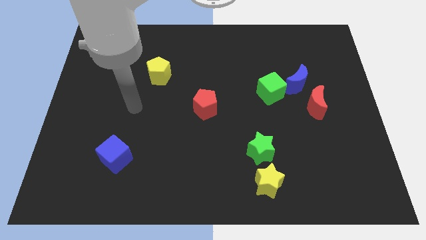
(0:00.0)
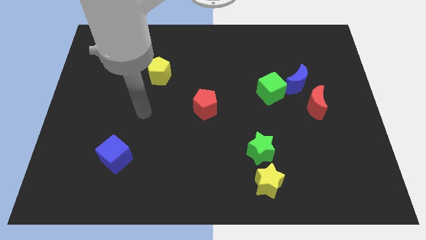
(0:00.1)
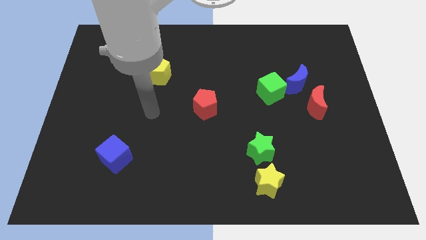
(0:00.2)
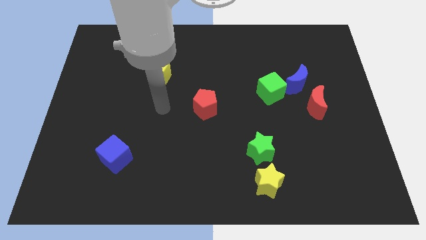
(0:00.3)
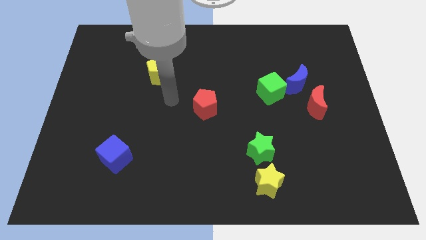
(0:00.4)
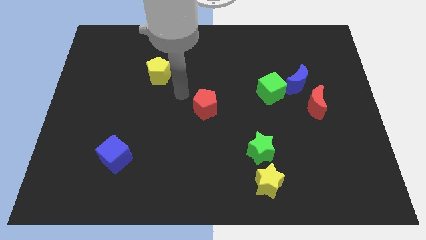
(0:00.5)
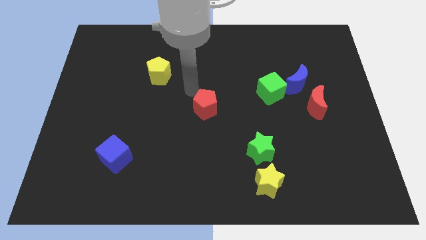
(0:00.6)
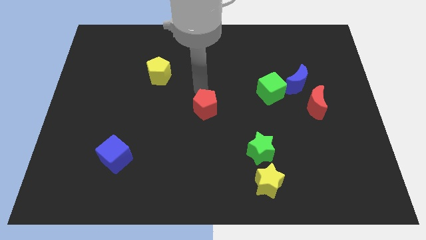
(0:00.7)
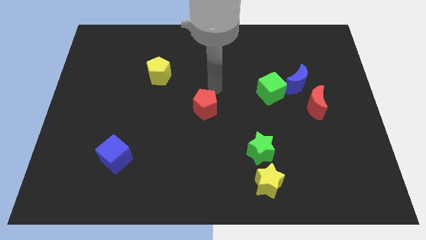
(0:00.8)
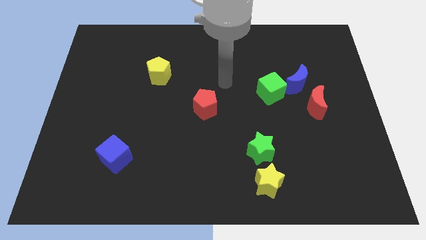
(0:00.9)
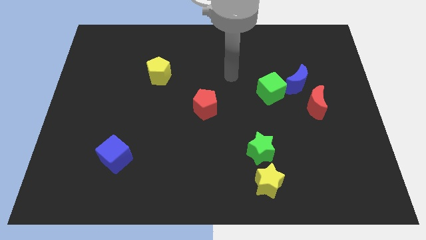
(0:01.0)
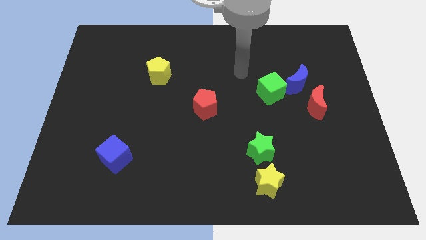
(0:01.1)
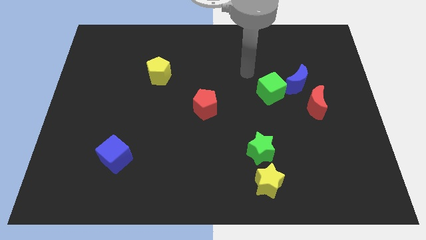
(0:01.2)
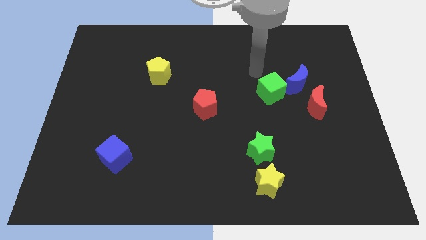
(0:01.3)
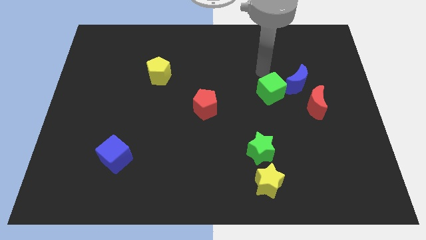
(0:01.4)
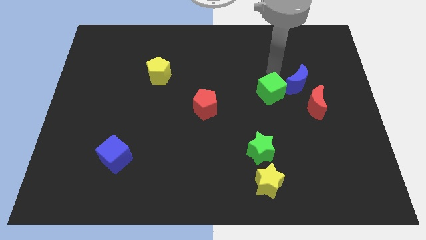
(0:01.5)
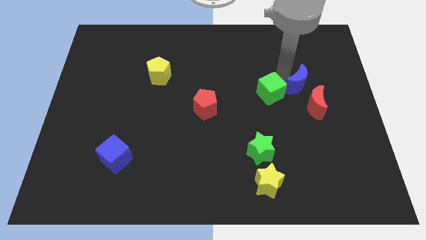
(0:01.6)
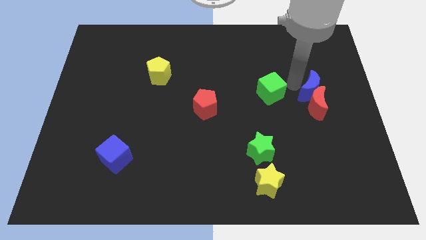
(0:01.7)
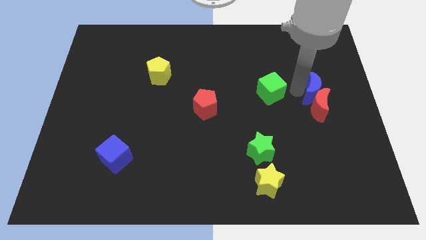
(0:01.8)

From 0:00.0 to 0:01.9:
pull the green cube apart from the blue moon

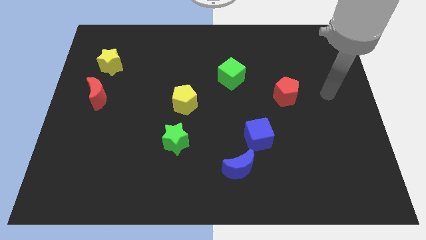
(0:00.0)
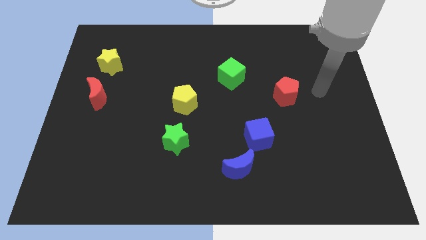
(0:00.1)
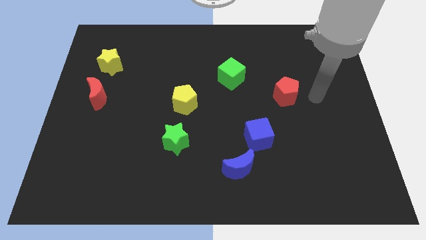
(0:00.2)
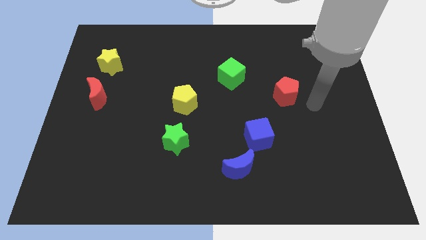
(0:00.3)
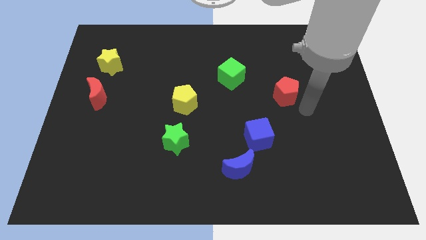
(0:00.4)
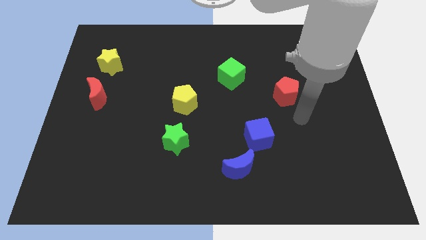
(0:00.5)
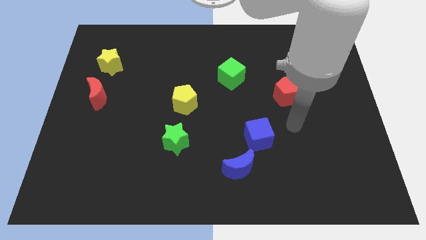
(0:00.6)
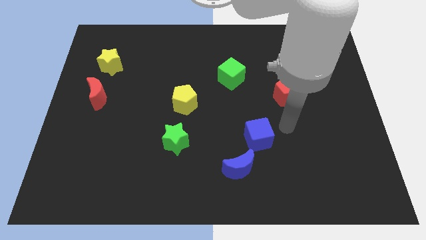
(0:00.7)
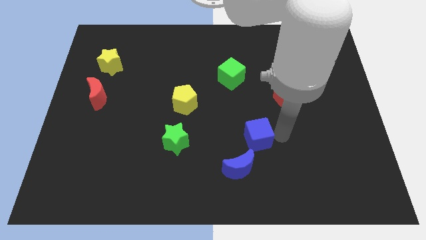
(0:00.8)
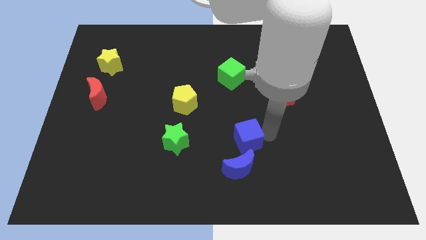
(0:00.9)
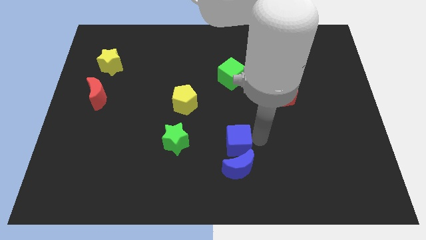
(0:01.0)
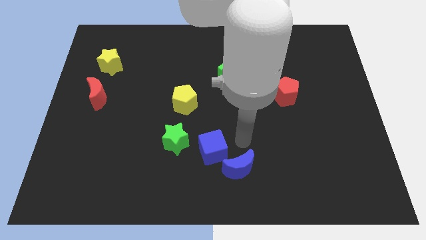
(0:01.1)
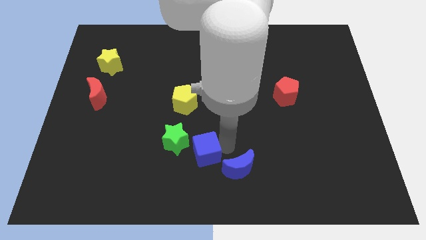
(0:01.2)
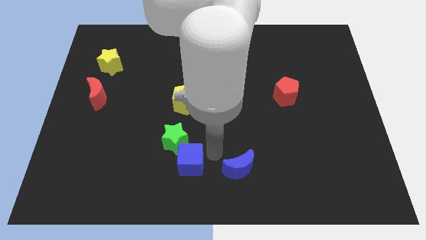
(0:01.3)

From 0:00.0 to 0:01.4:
pull the blue moon apart from the blue cube

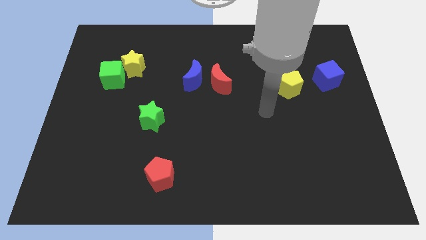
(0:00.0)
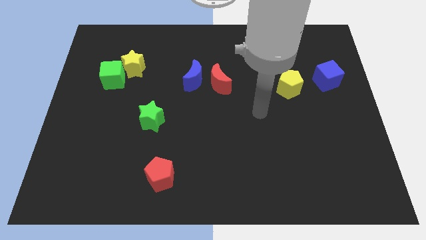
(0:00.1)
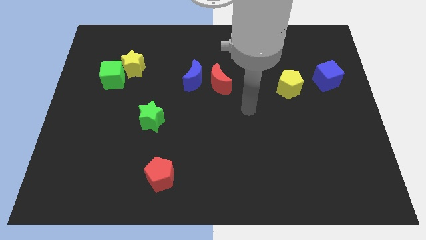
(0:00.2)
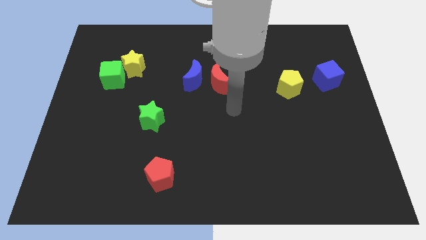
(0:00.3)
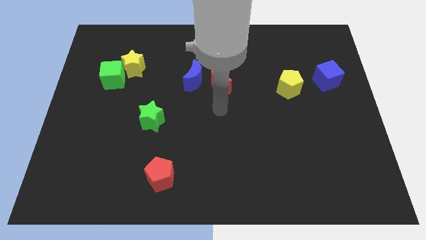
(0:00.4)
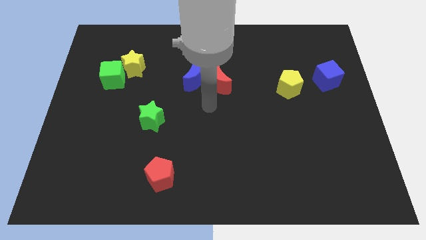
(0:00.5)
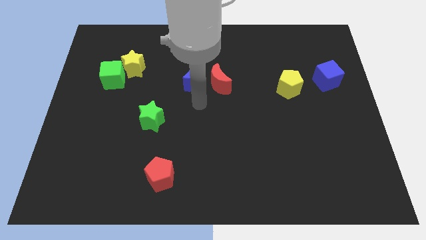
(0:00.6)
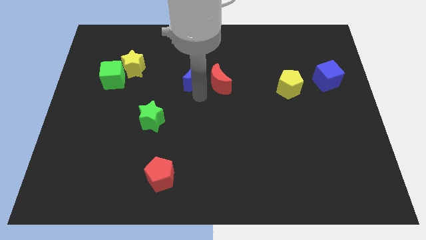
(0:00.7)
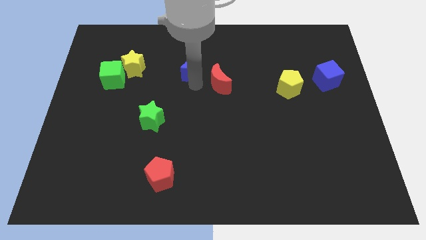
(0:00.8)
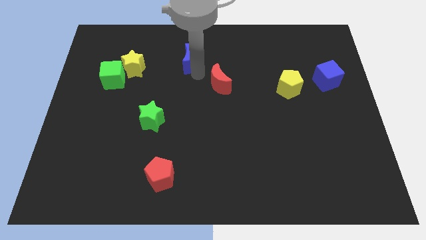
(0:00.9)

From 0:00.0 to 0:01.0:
pull the red moon apart from the blue moon

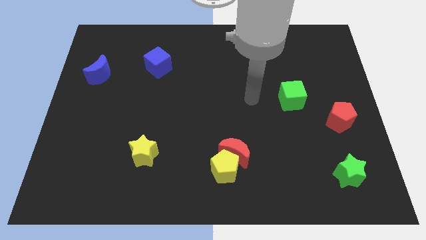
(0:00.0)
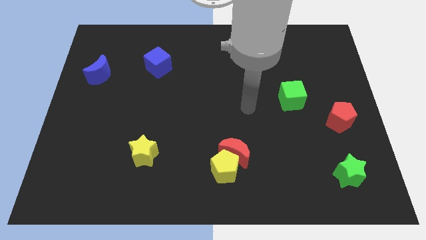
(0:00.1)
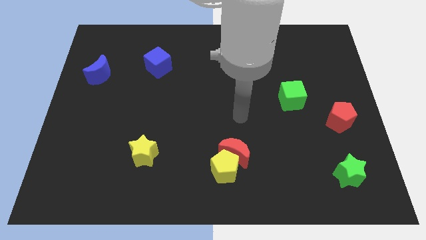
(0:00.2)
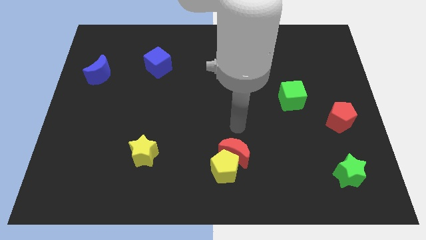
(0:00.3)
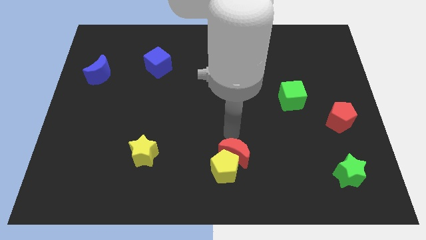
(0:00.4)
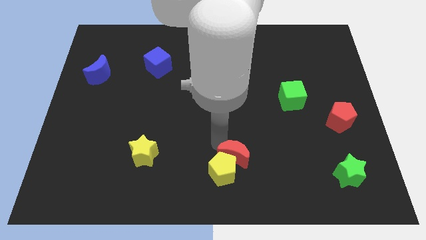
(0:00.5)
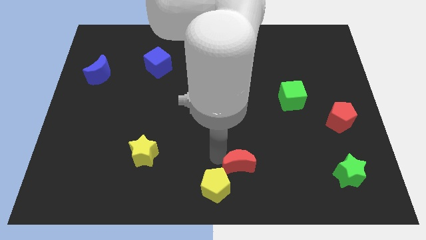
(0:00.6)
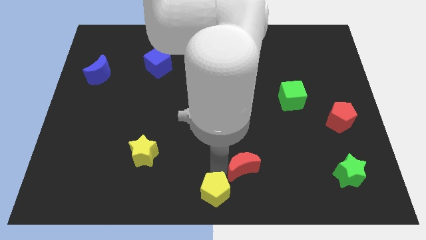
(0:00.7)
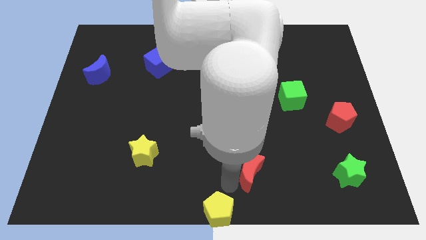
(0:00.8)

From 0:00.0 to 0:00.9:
pull the red moon apart from the yellow pentagon

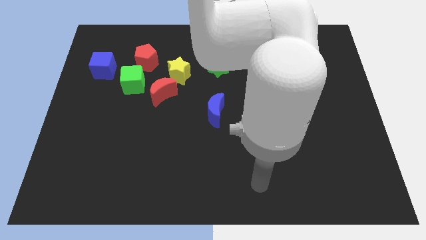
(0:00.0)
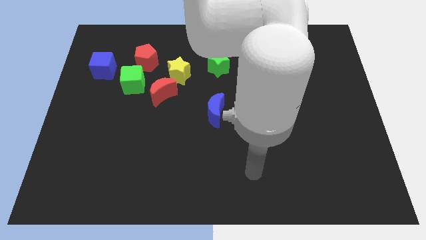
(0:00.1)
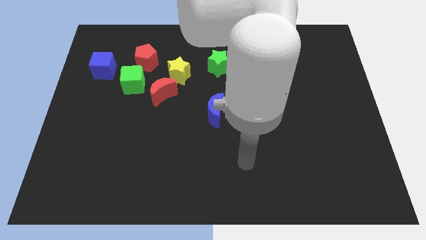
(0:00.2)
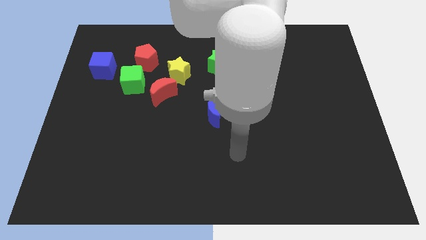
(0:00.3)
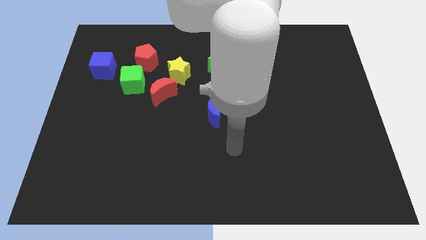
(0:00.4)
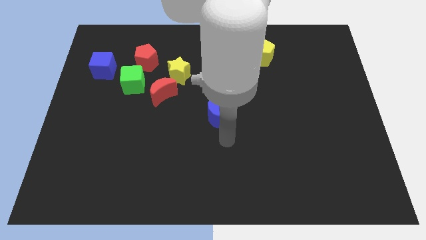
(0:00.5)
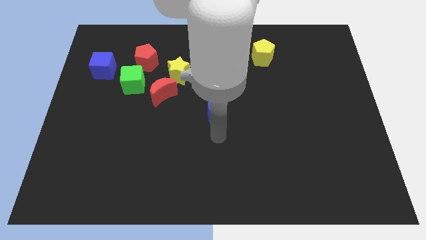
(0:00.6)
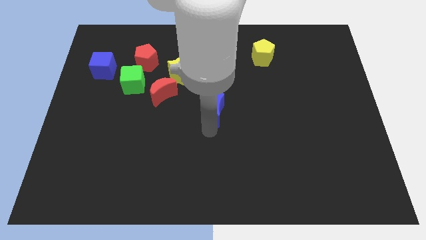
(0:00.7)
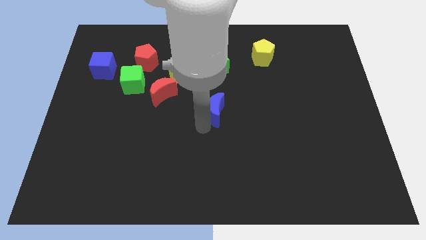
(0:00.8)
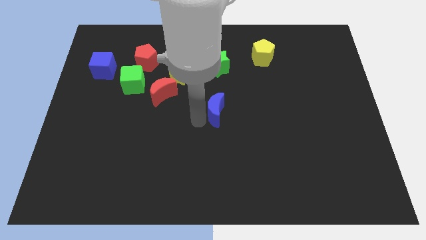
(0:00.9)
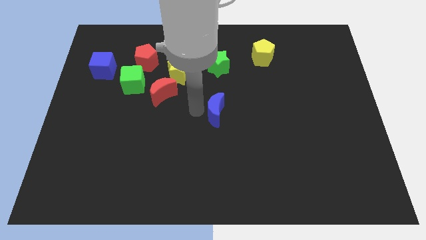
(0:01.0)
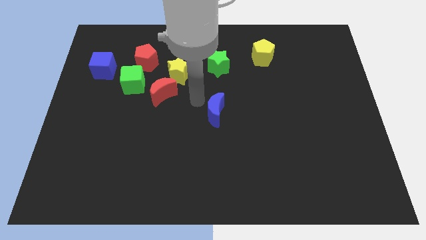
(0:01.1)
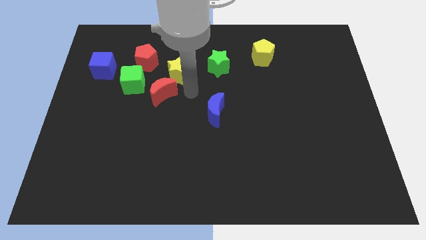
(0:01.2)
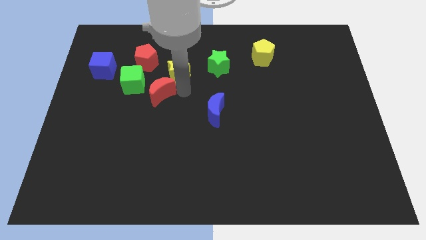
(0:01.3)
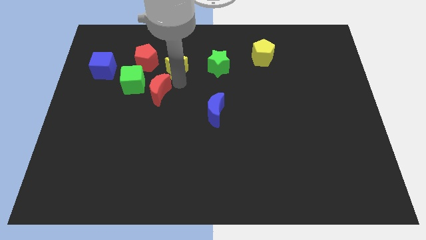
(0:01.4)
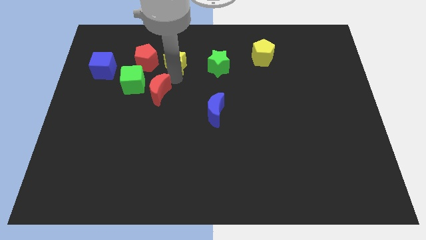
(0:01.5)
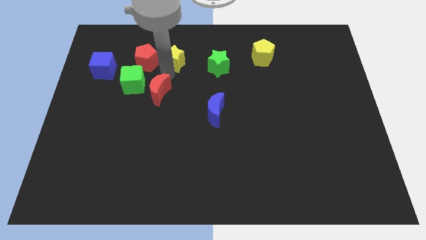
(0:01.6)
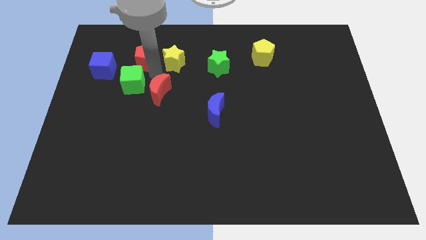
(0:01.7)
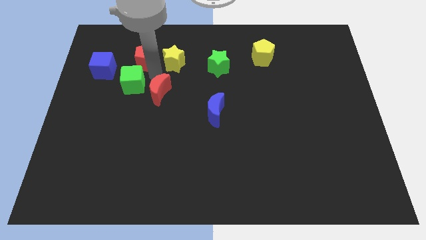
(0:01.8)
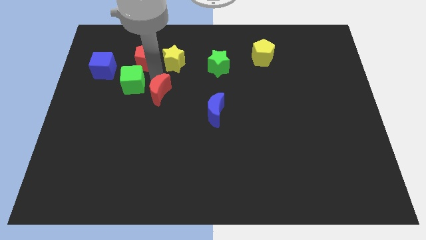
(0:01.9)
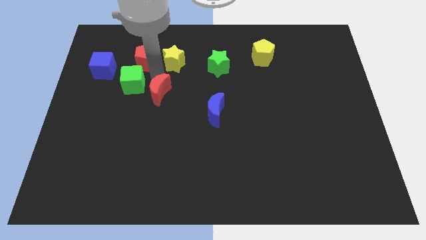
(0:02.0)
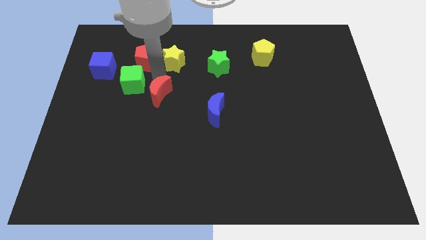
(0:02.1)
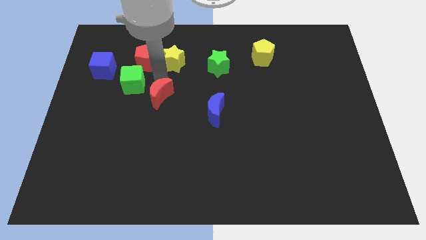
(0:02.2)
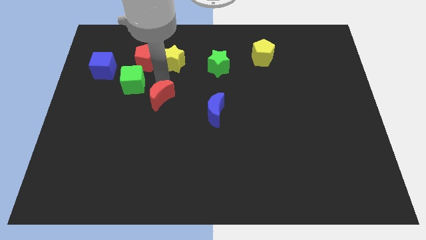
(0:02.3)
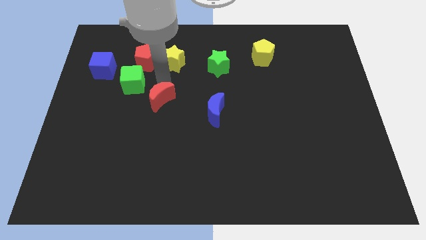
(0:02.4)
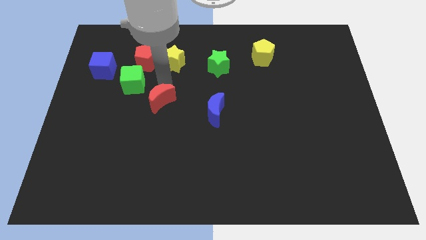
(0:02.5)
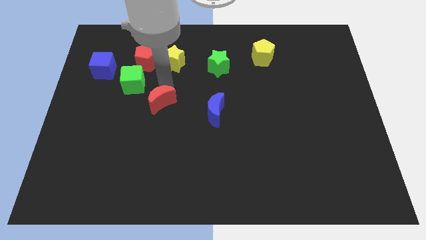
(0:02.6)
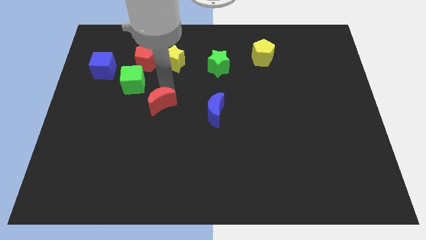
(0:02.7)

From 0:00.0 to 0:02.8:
pull the red moon apart from the yellow star and green cube

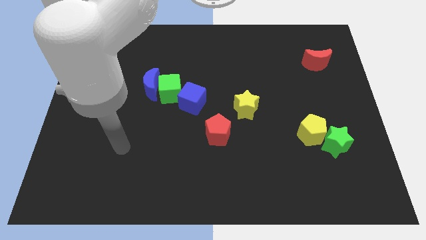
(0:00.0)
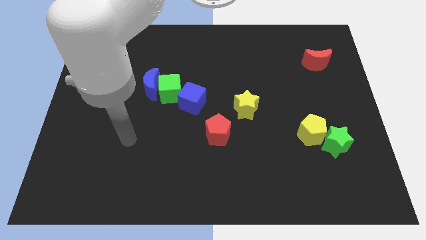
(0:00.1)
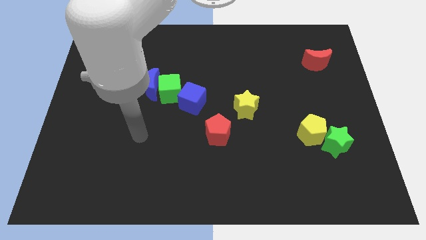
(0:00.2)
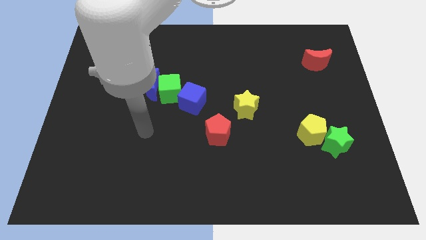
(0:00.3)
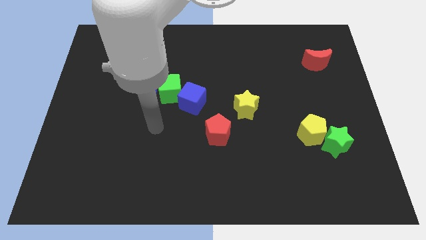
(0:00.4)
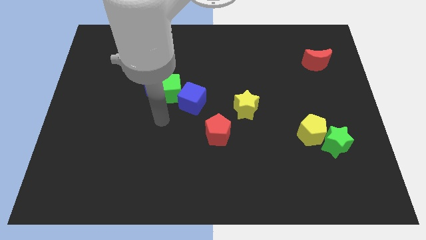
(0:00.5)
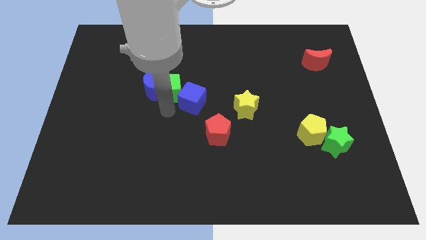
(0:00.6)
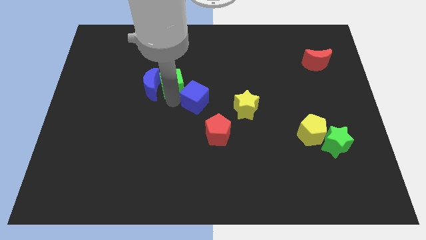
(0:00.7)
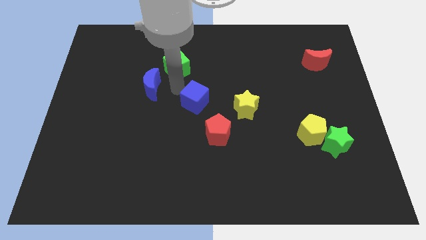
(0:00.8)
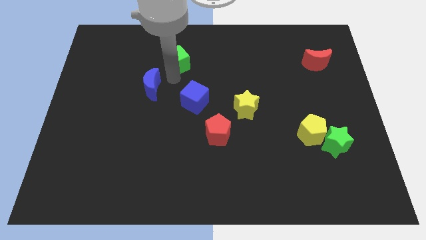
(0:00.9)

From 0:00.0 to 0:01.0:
move the blue moon away from the green cube

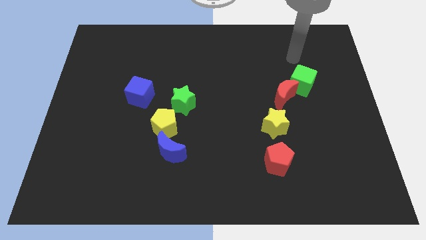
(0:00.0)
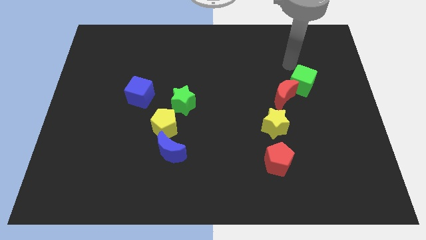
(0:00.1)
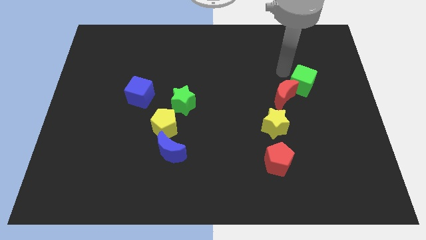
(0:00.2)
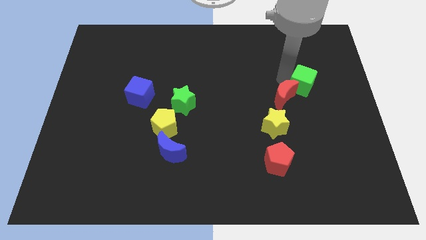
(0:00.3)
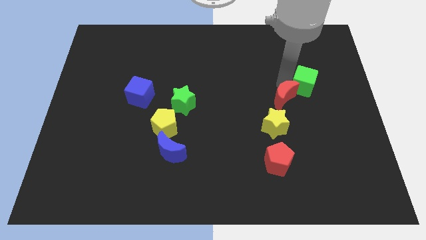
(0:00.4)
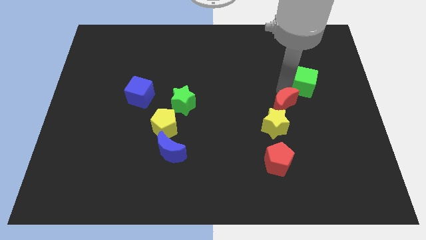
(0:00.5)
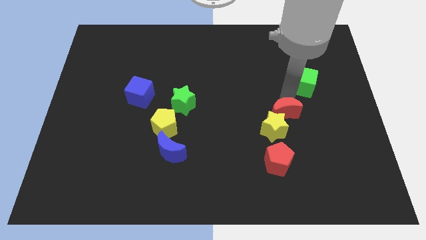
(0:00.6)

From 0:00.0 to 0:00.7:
separate the green cube from the red moon
